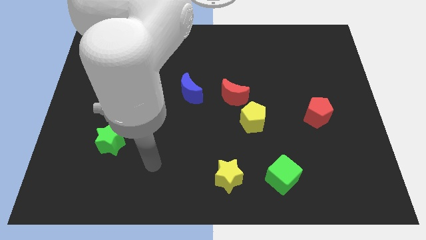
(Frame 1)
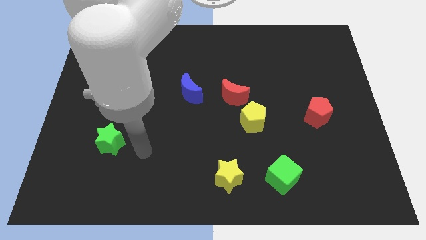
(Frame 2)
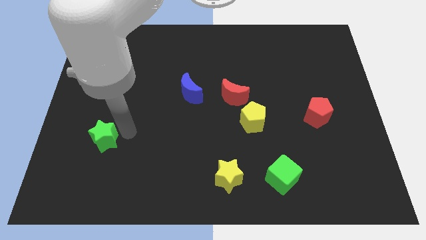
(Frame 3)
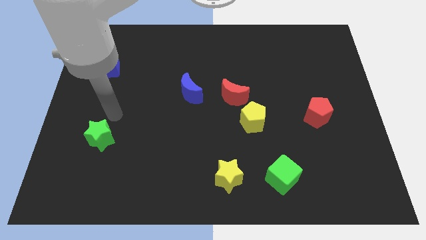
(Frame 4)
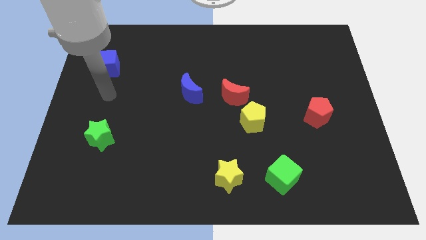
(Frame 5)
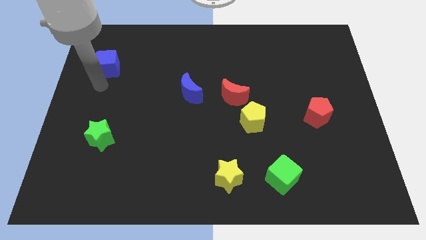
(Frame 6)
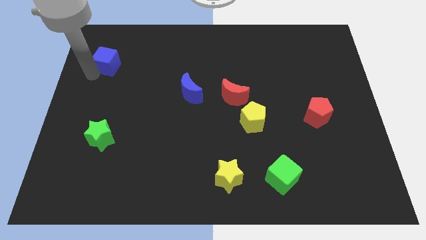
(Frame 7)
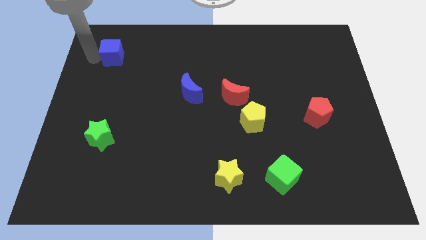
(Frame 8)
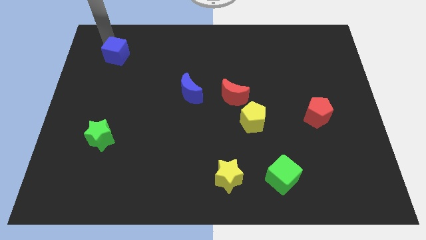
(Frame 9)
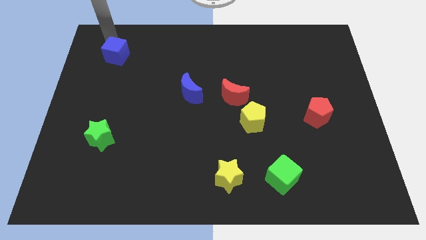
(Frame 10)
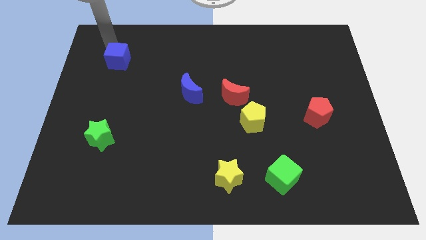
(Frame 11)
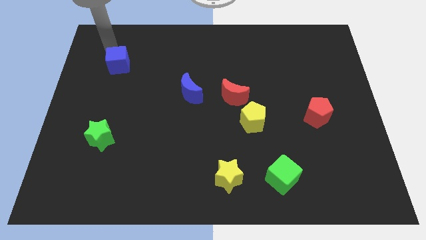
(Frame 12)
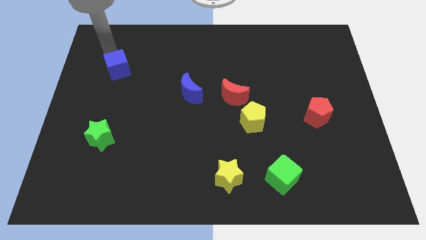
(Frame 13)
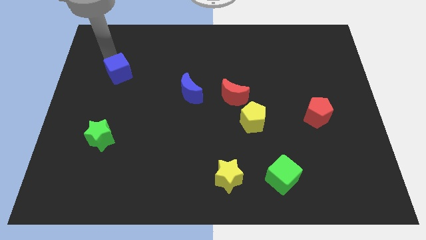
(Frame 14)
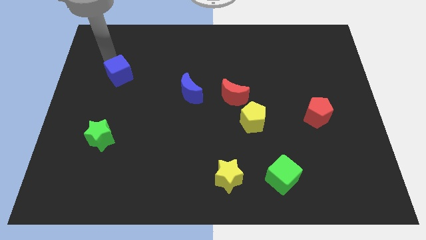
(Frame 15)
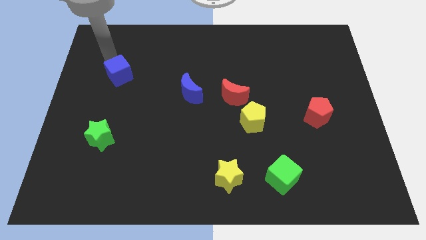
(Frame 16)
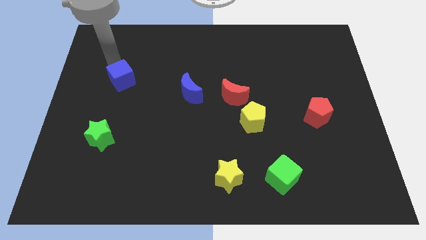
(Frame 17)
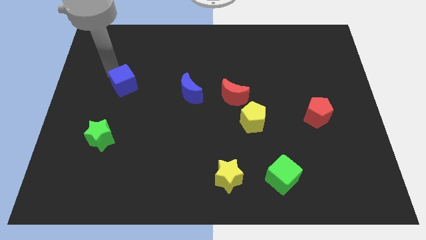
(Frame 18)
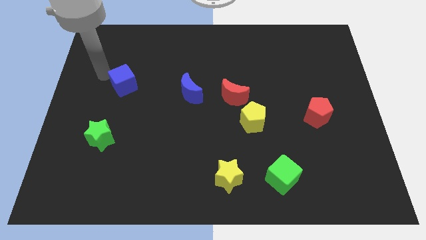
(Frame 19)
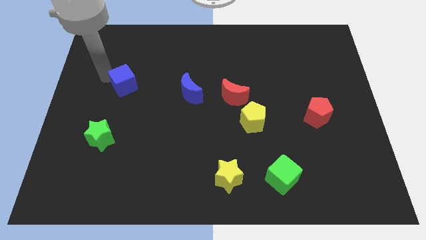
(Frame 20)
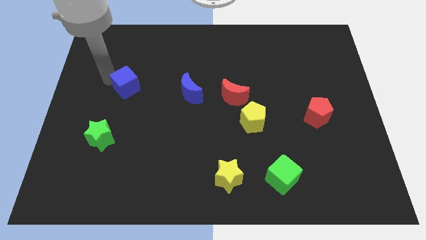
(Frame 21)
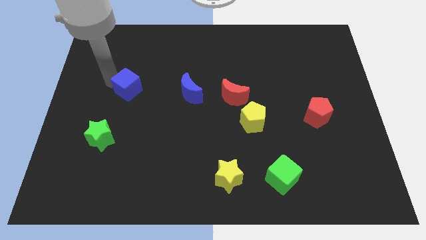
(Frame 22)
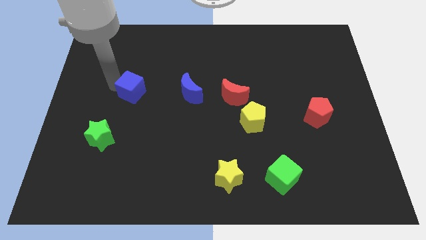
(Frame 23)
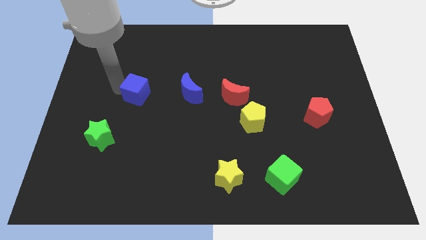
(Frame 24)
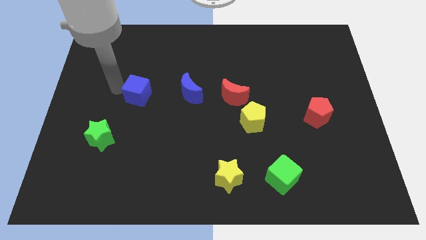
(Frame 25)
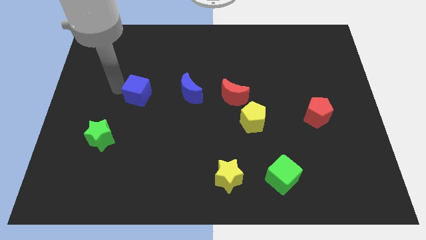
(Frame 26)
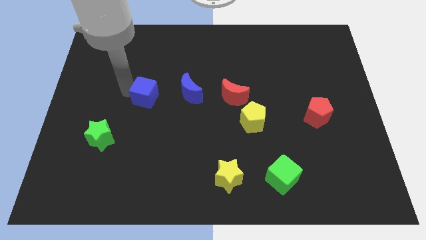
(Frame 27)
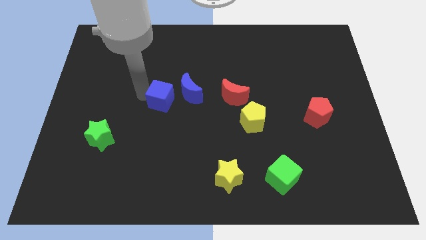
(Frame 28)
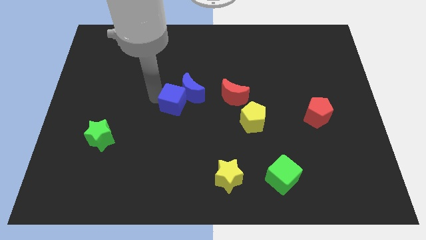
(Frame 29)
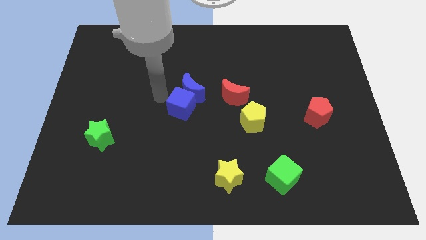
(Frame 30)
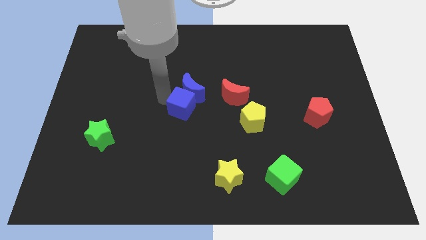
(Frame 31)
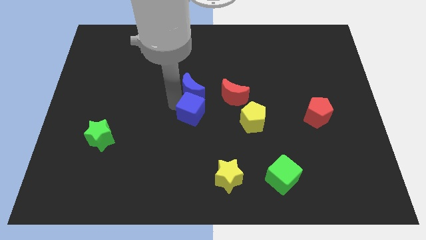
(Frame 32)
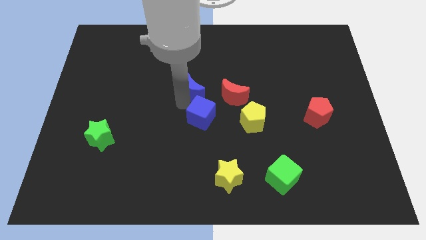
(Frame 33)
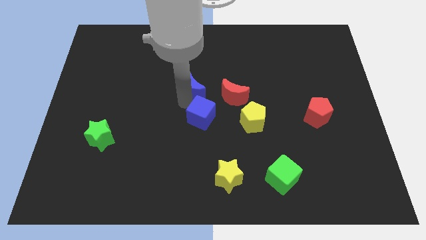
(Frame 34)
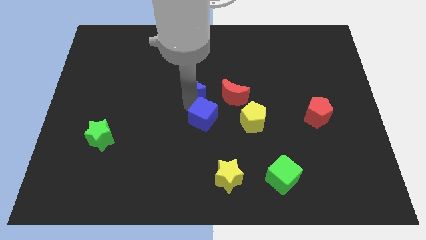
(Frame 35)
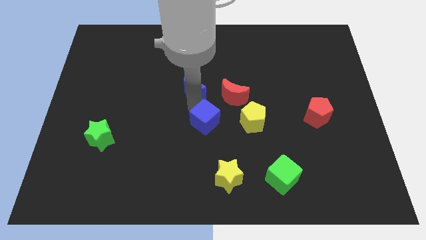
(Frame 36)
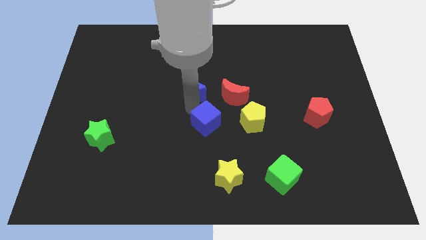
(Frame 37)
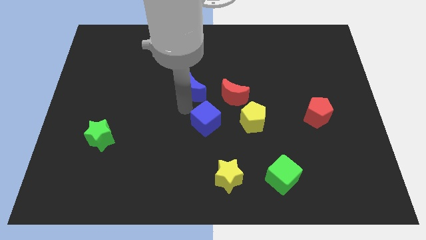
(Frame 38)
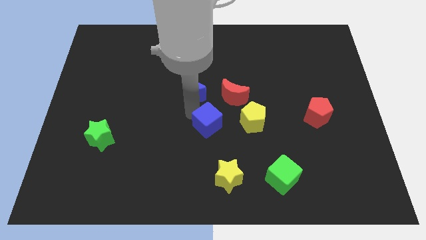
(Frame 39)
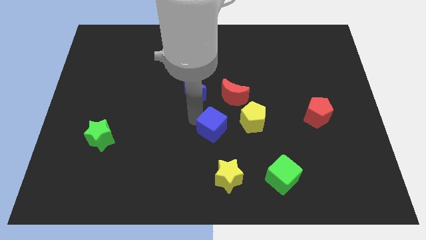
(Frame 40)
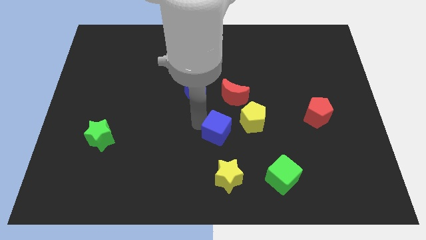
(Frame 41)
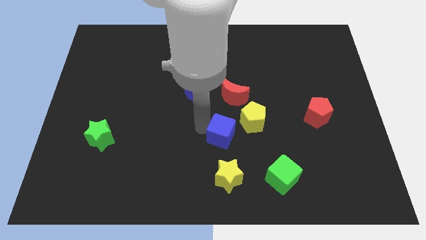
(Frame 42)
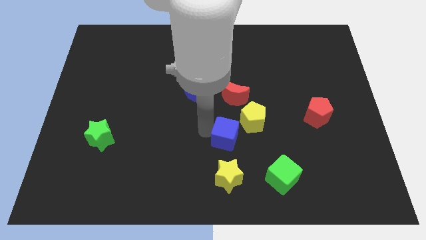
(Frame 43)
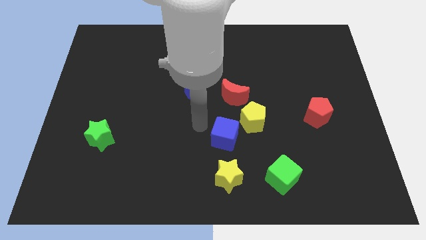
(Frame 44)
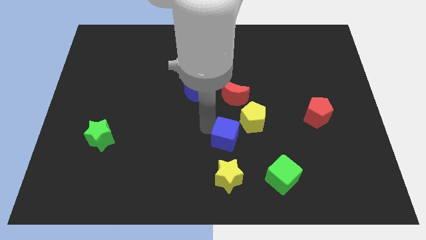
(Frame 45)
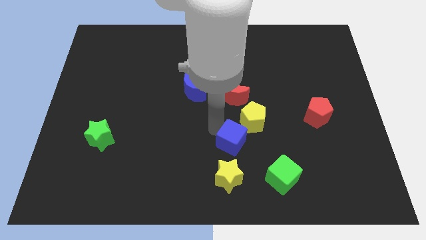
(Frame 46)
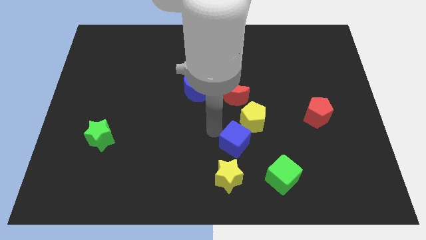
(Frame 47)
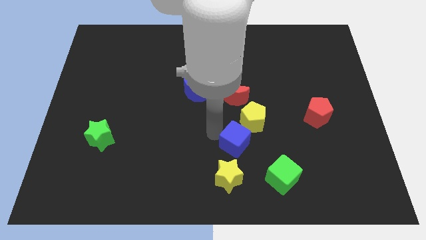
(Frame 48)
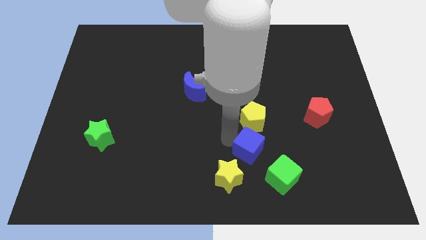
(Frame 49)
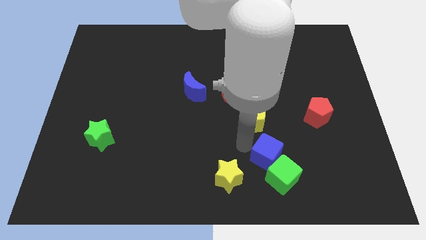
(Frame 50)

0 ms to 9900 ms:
move the blue cube close to the green cube

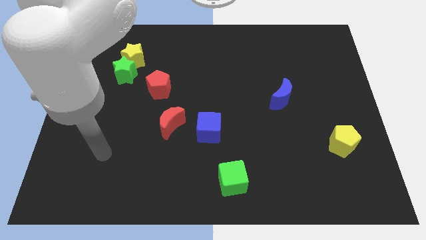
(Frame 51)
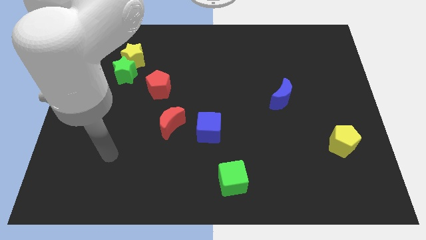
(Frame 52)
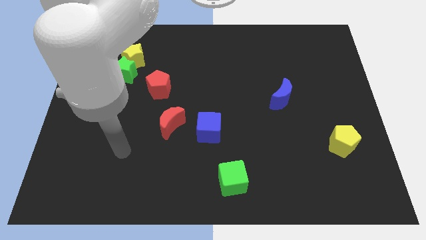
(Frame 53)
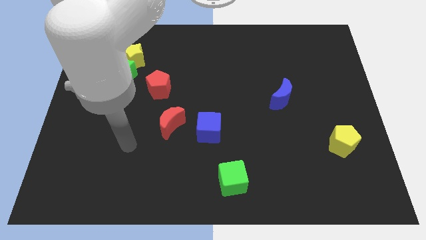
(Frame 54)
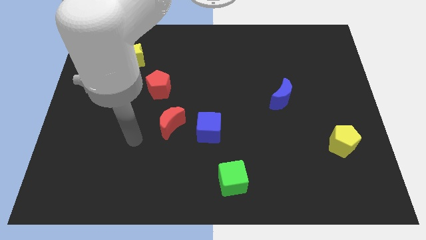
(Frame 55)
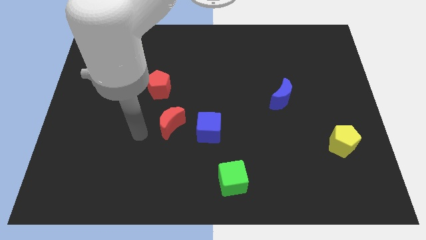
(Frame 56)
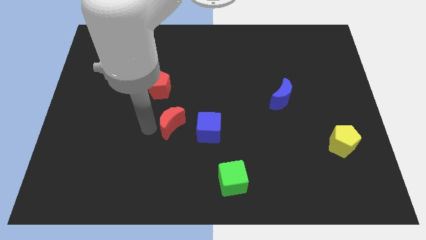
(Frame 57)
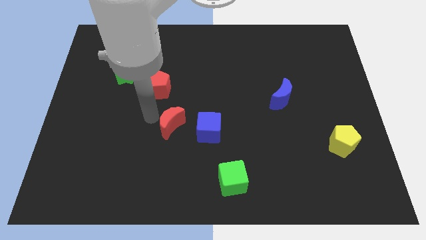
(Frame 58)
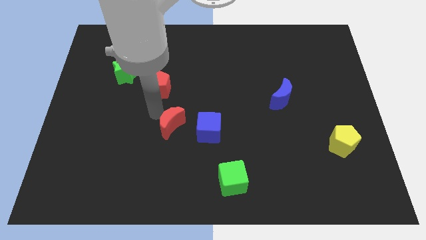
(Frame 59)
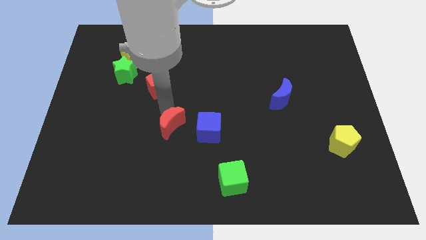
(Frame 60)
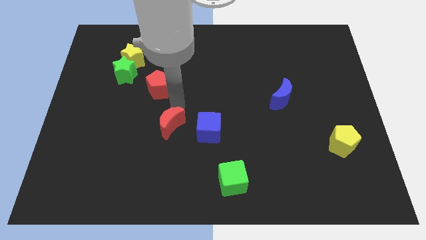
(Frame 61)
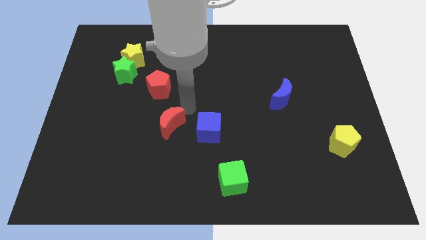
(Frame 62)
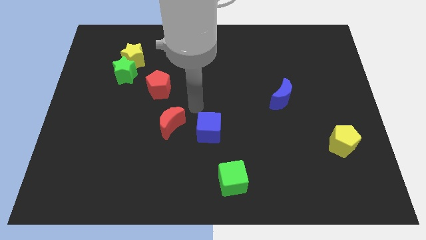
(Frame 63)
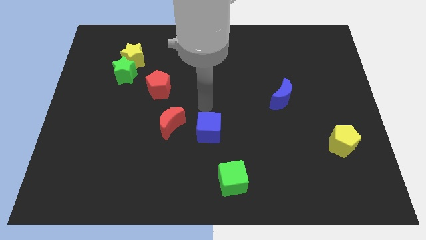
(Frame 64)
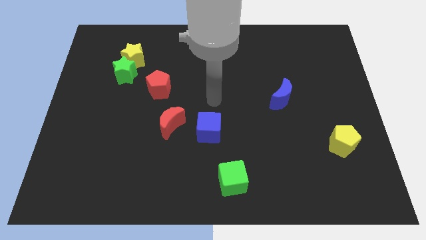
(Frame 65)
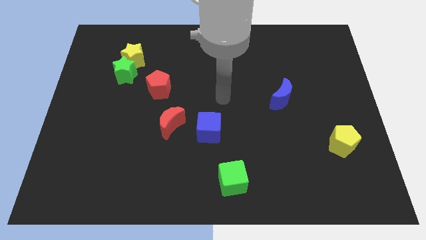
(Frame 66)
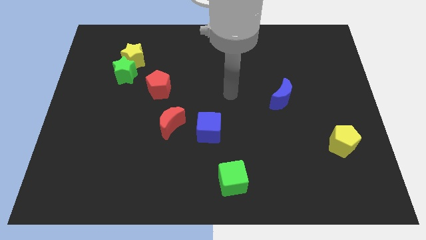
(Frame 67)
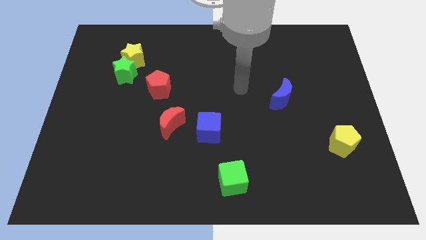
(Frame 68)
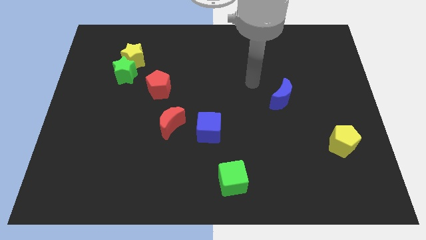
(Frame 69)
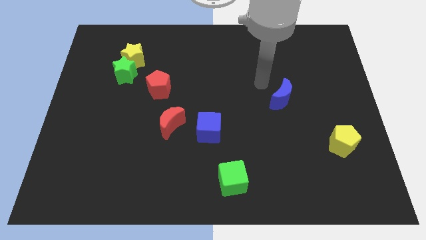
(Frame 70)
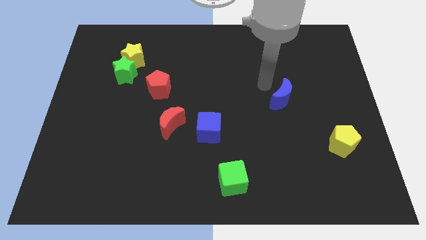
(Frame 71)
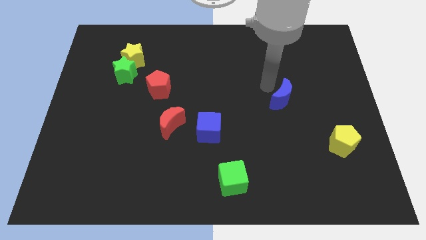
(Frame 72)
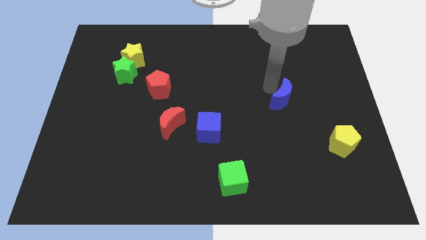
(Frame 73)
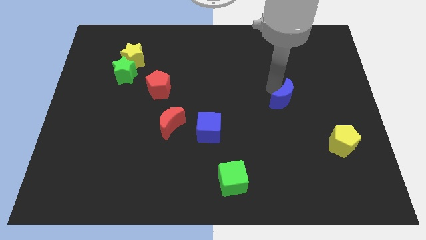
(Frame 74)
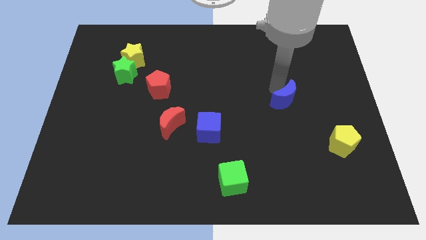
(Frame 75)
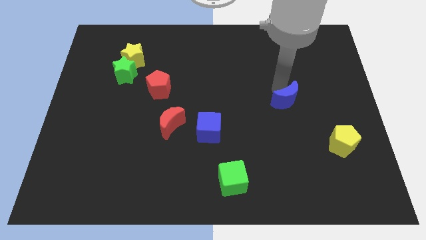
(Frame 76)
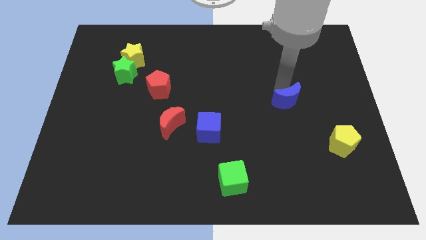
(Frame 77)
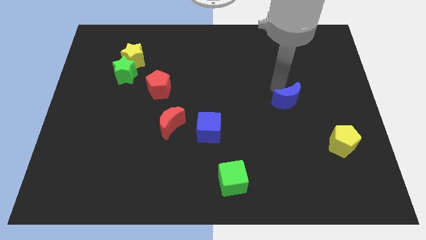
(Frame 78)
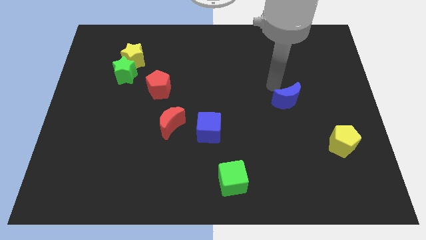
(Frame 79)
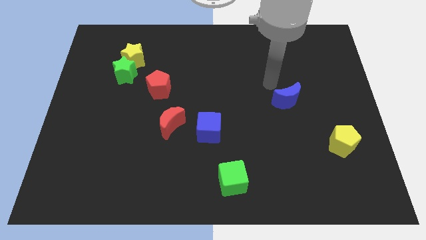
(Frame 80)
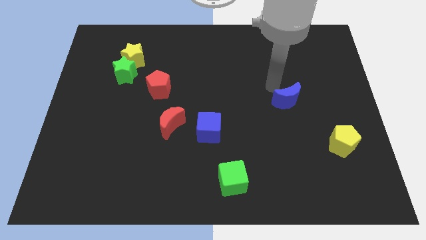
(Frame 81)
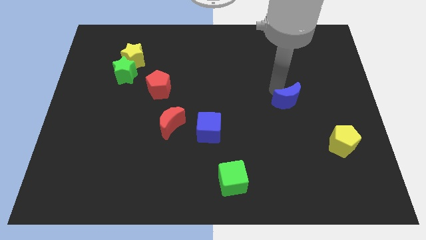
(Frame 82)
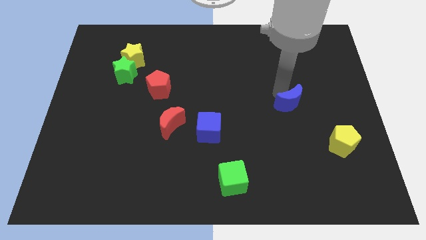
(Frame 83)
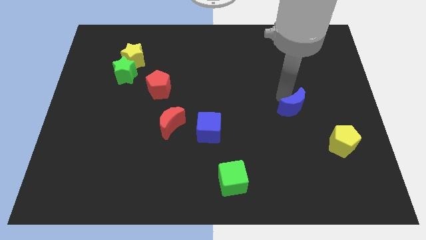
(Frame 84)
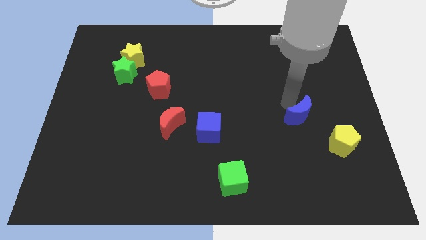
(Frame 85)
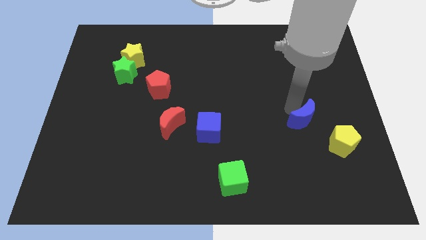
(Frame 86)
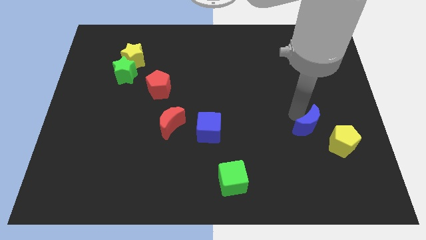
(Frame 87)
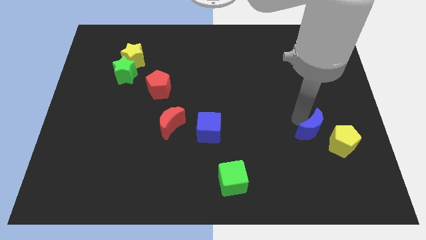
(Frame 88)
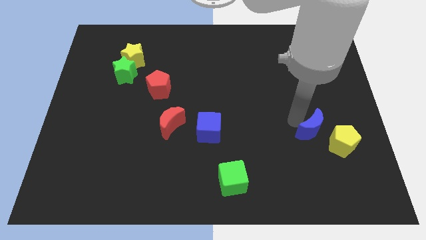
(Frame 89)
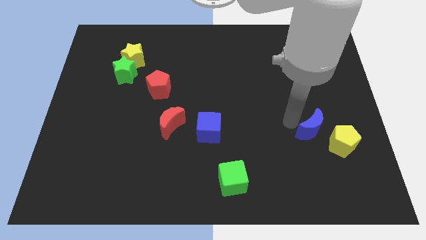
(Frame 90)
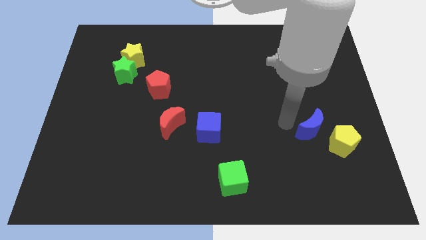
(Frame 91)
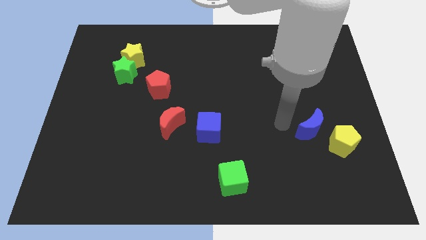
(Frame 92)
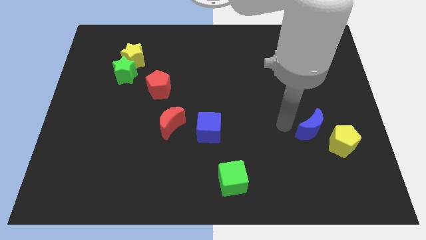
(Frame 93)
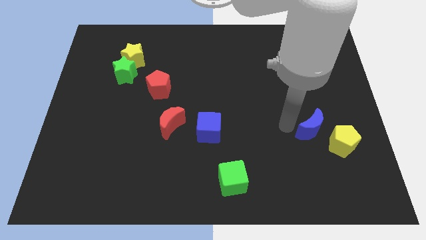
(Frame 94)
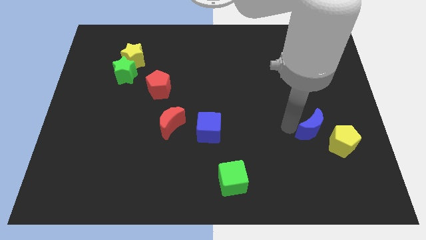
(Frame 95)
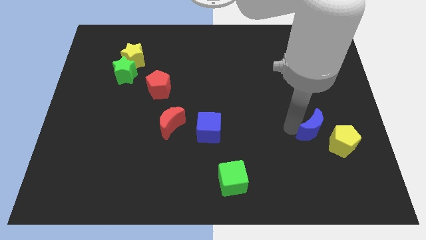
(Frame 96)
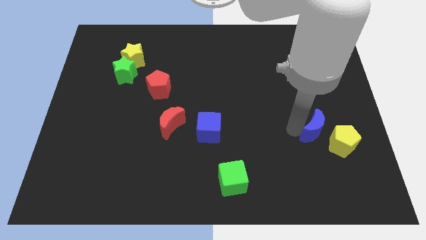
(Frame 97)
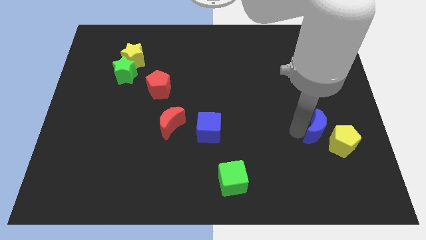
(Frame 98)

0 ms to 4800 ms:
put the blue moon towards the yellow pentagon
